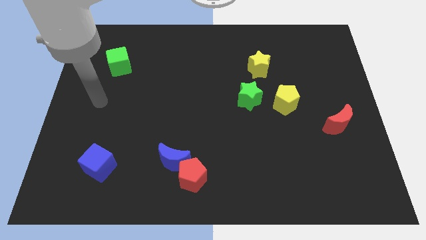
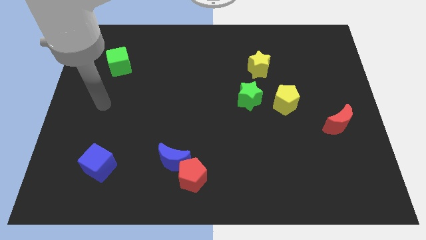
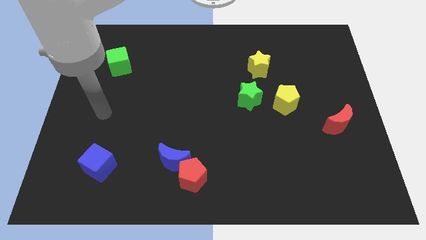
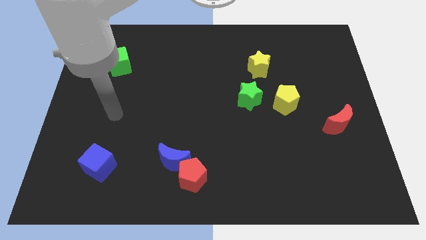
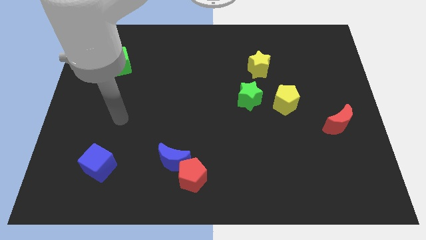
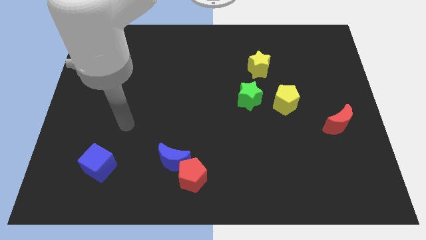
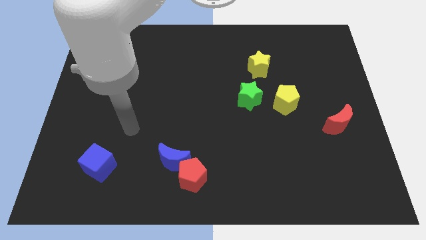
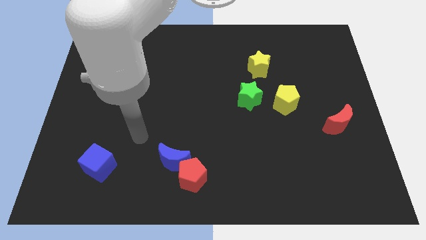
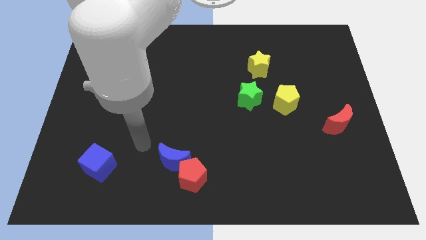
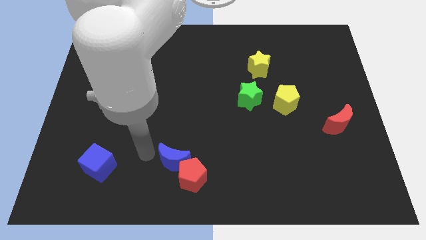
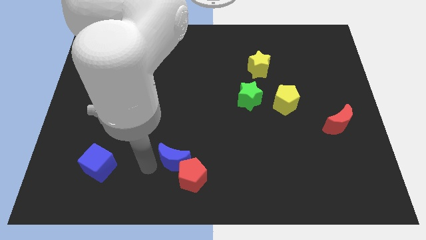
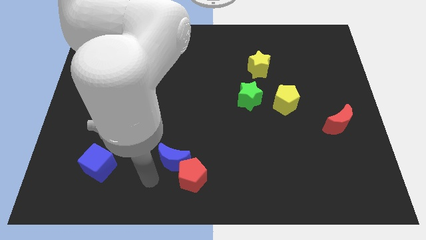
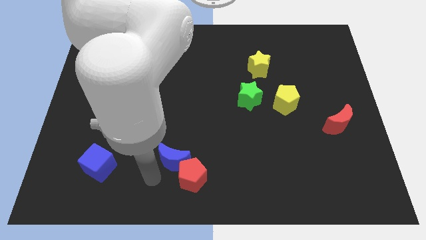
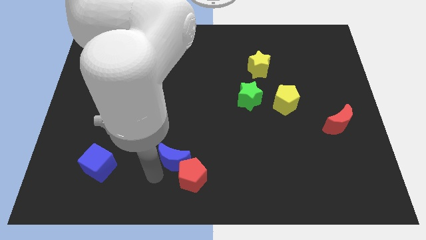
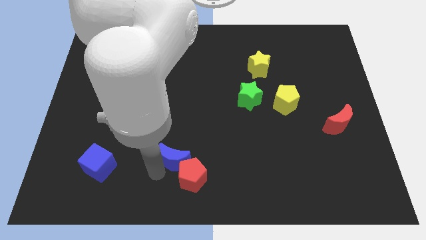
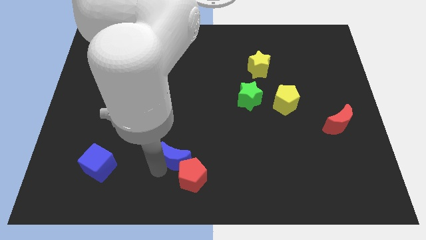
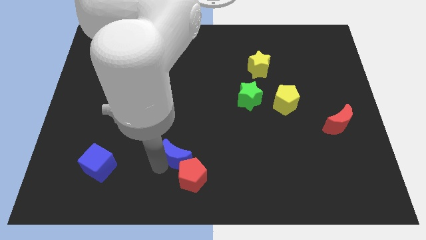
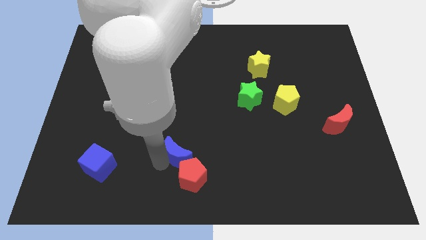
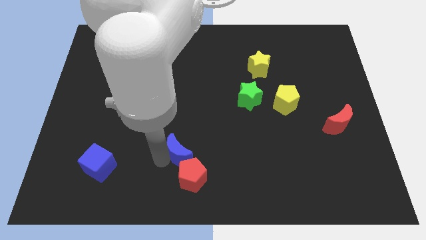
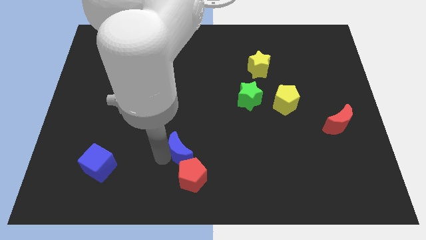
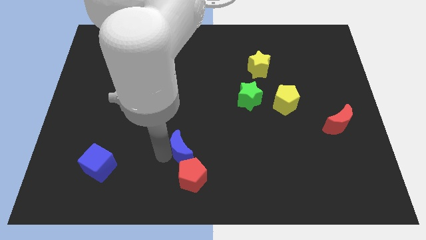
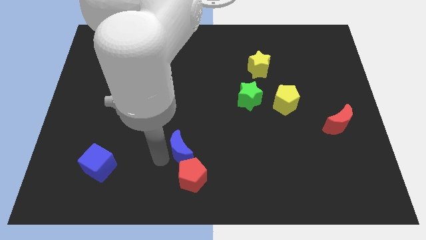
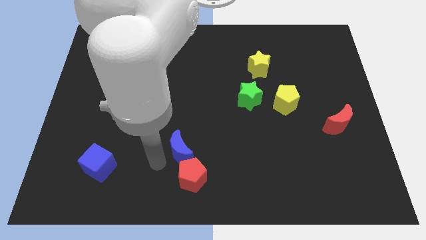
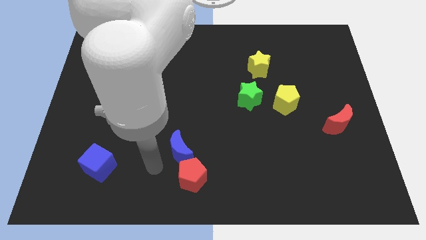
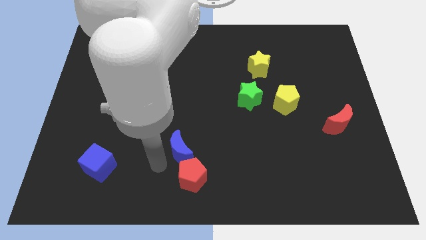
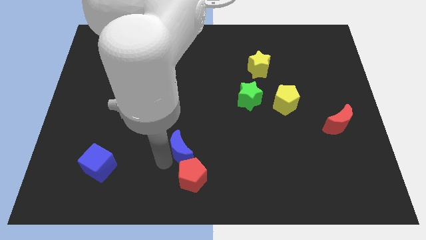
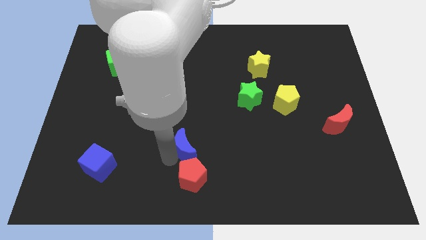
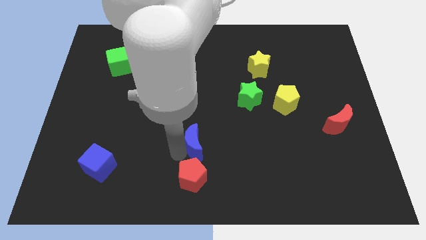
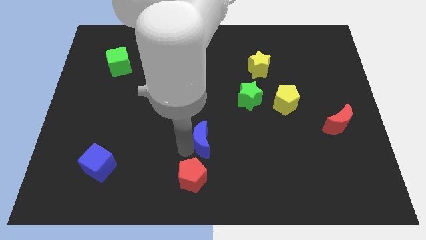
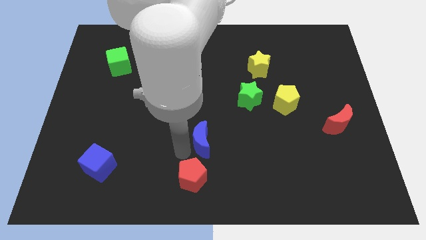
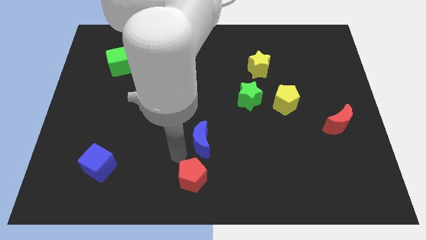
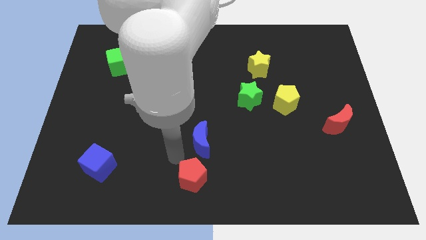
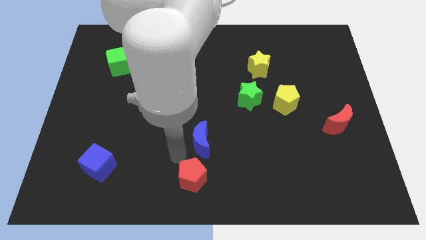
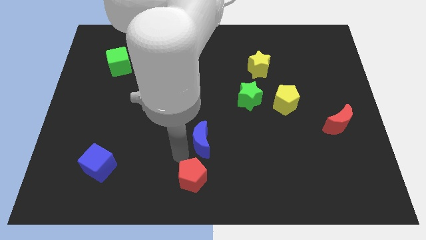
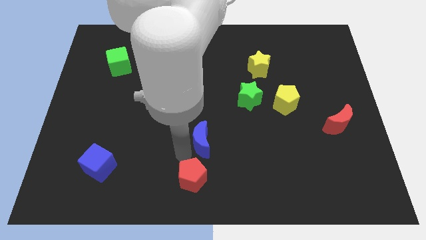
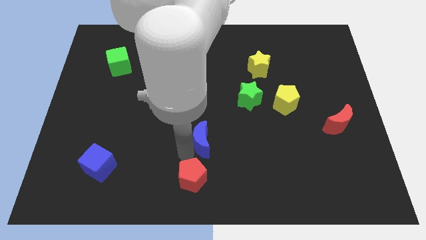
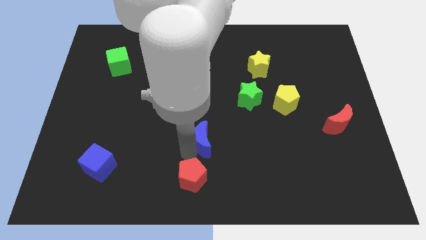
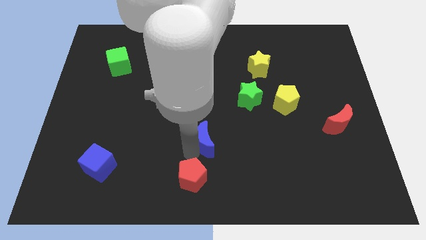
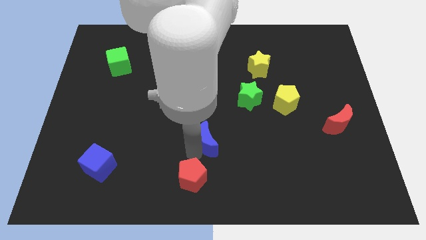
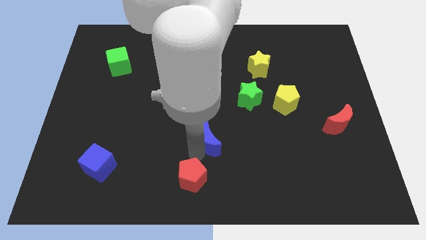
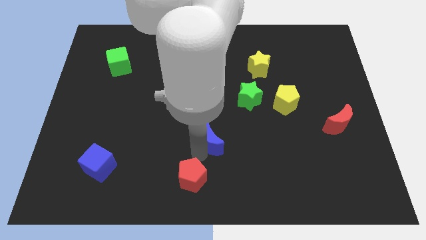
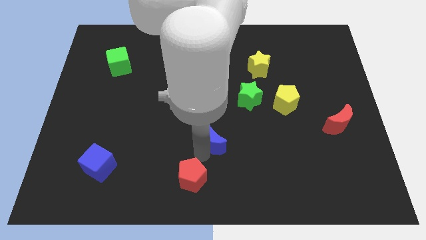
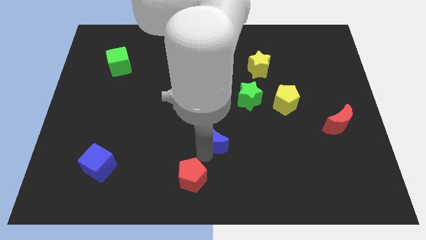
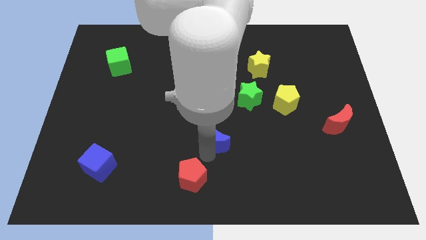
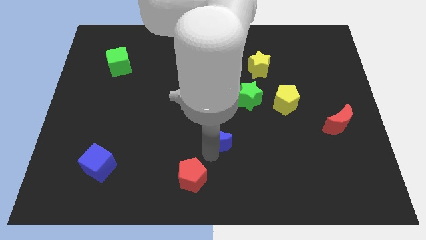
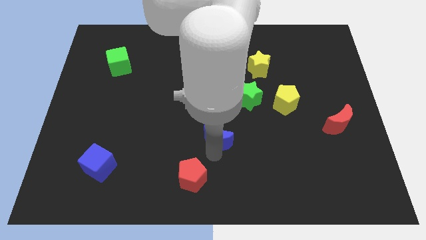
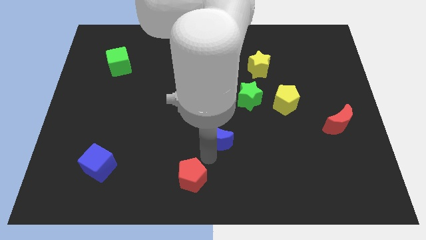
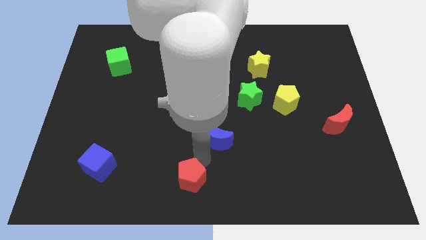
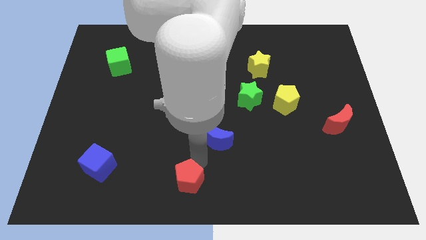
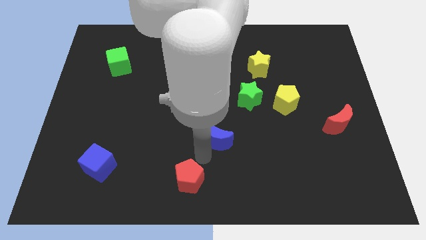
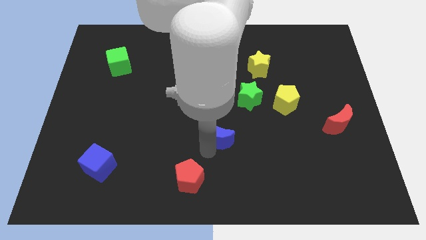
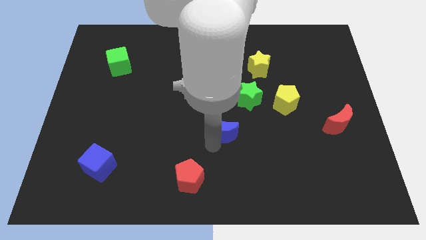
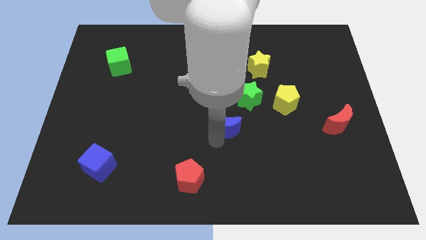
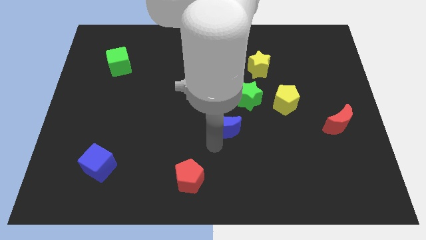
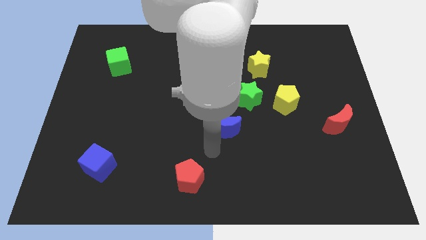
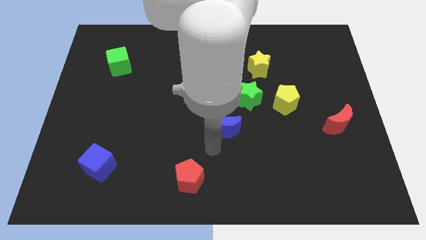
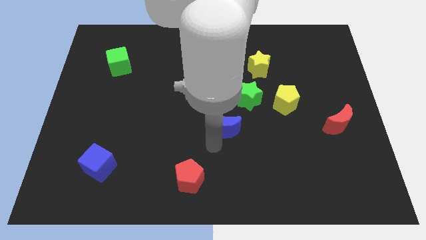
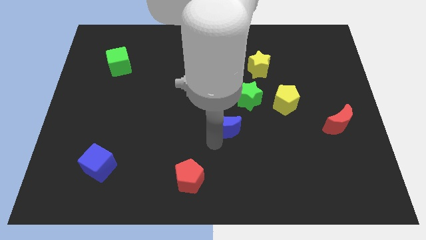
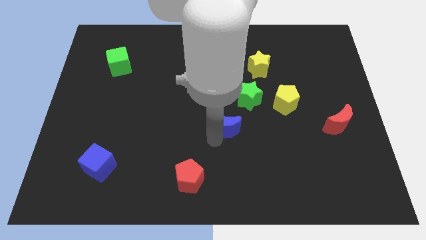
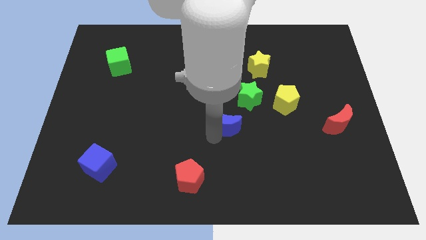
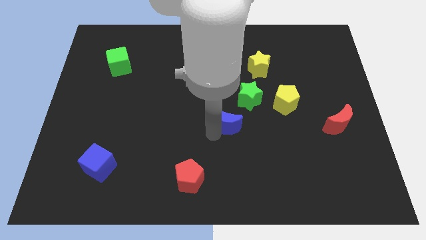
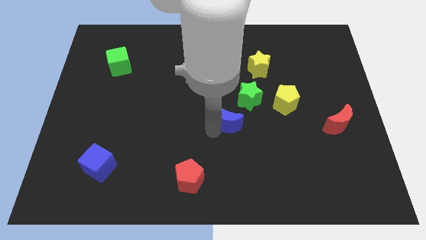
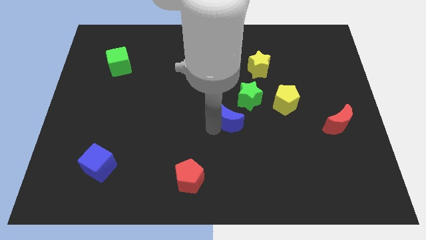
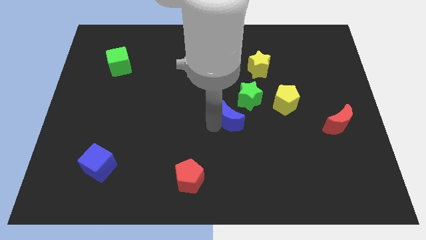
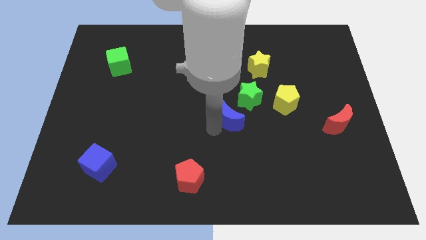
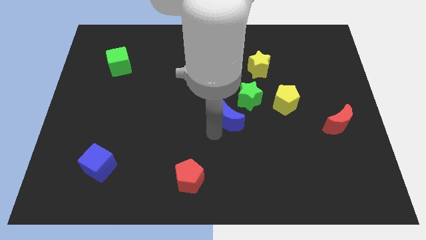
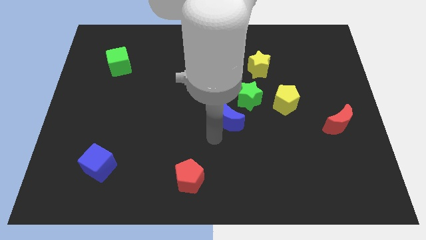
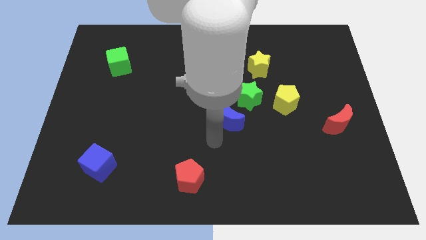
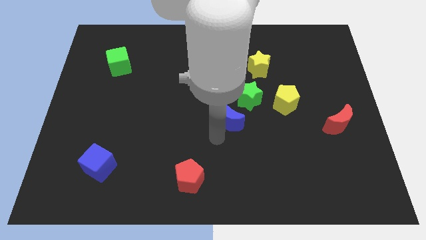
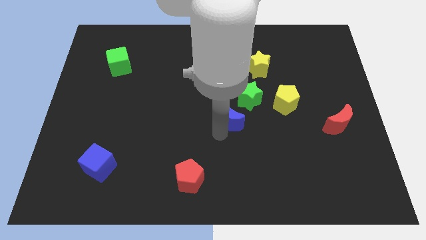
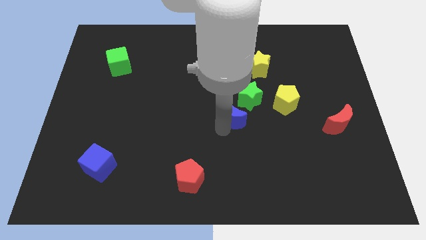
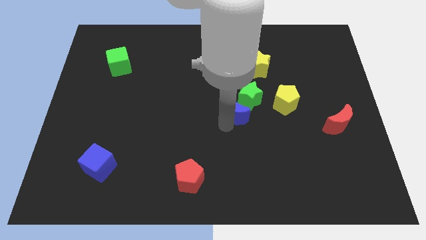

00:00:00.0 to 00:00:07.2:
put the blue moon towards the green star
